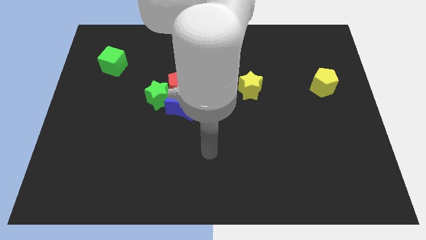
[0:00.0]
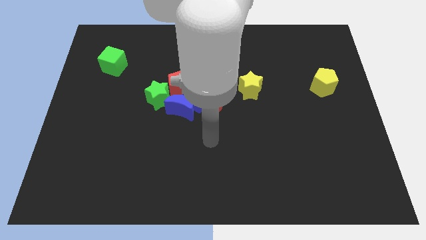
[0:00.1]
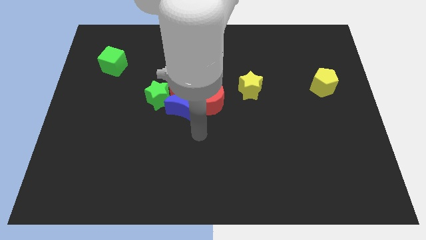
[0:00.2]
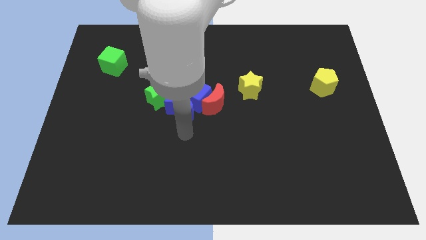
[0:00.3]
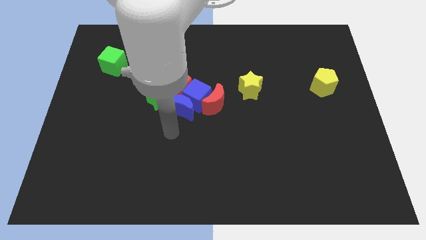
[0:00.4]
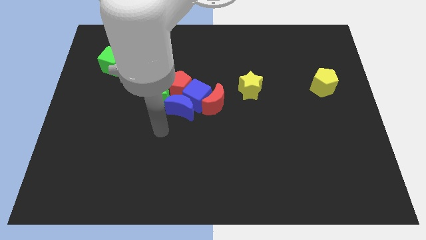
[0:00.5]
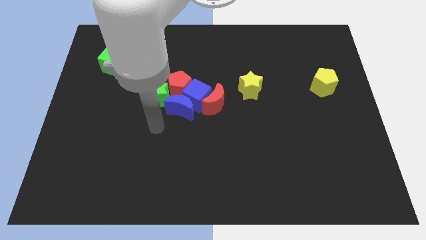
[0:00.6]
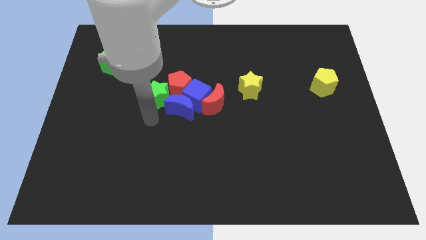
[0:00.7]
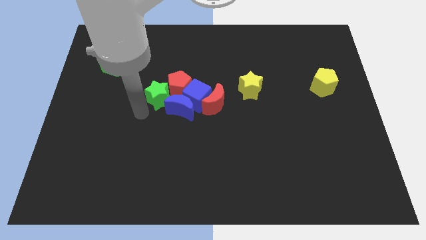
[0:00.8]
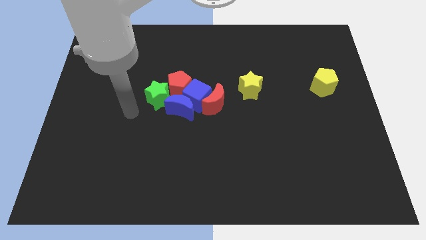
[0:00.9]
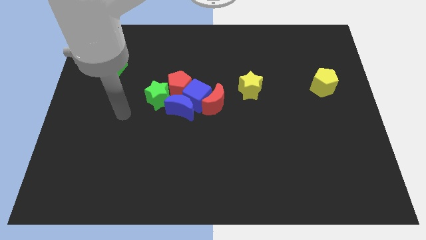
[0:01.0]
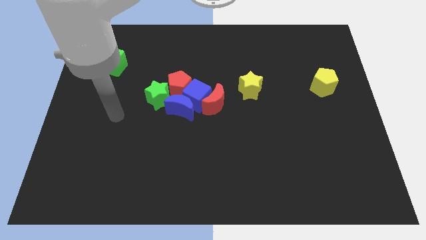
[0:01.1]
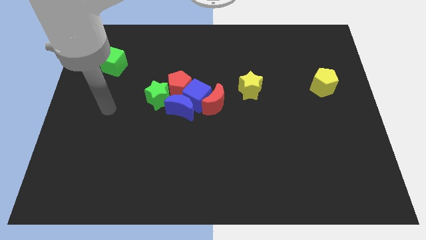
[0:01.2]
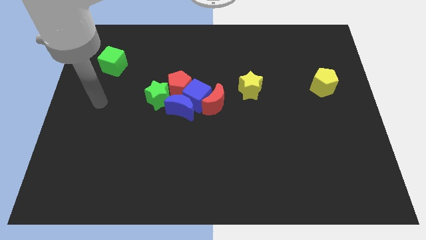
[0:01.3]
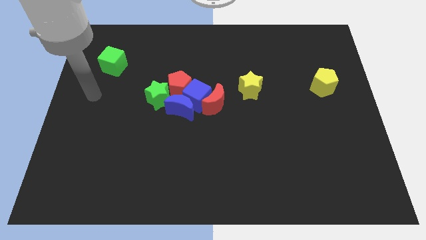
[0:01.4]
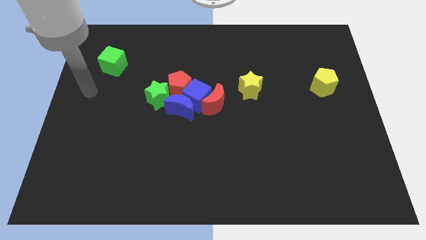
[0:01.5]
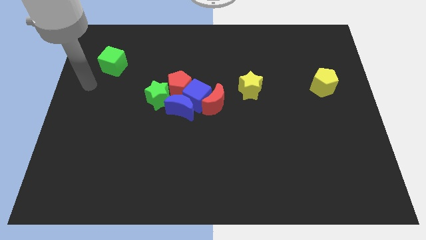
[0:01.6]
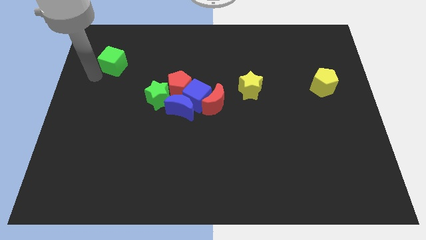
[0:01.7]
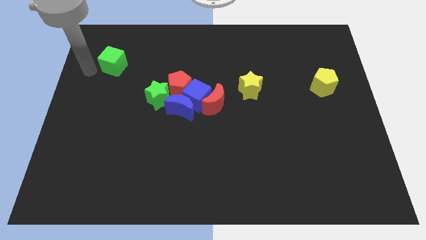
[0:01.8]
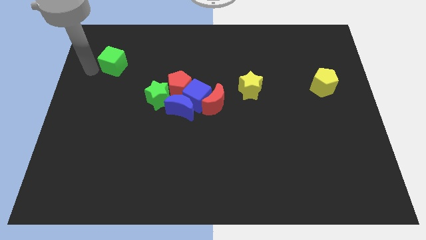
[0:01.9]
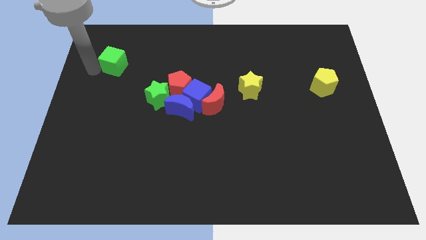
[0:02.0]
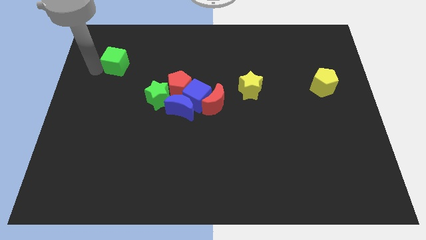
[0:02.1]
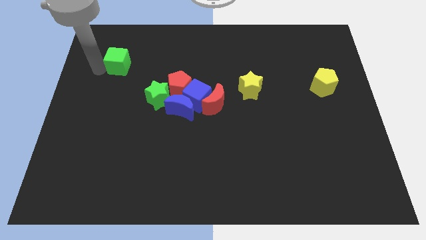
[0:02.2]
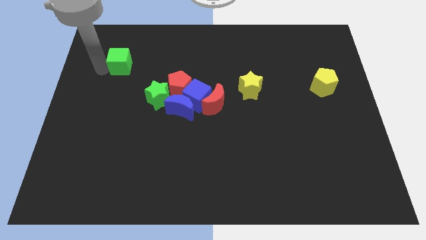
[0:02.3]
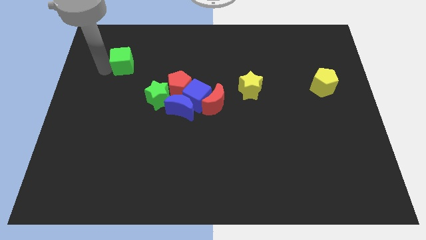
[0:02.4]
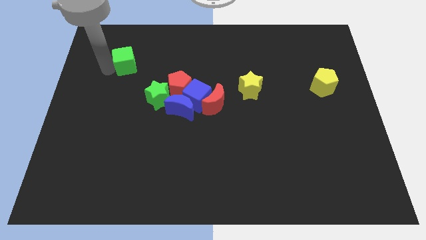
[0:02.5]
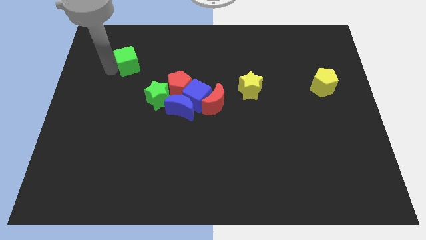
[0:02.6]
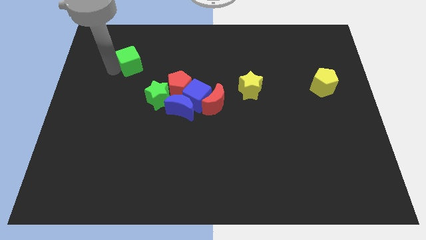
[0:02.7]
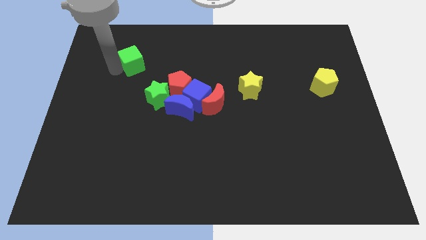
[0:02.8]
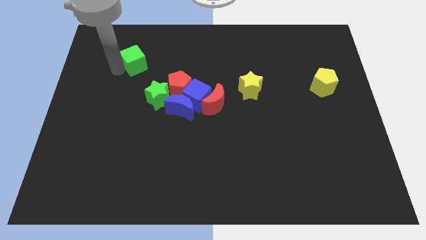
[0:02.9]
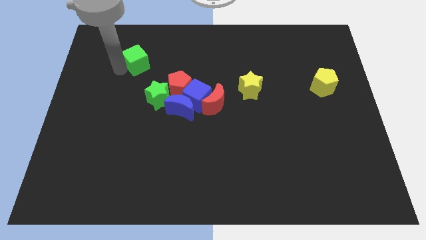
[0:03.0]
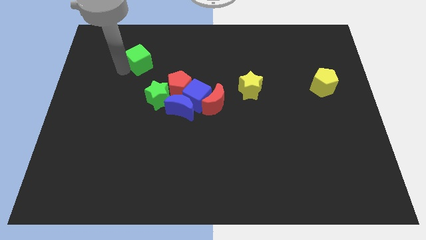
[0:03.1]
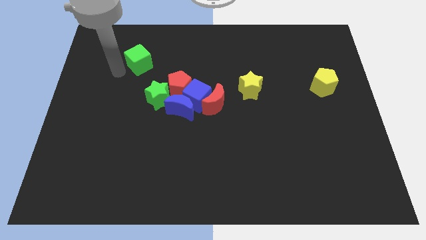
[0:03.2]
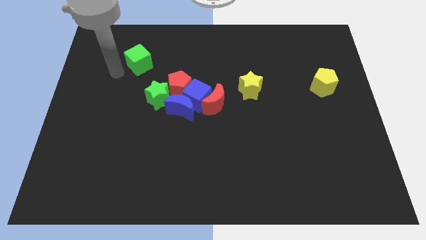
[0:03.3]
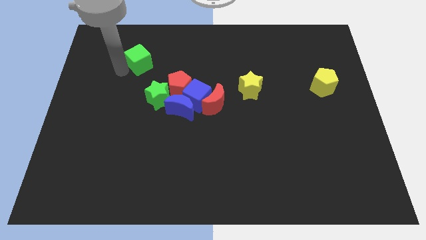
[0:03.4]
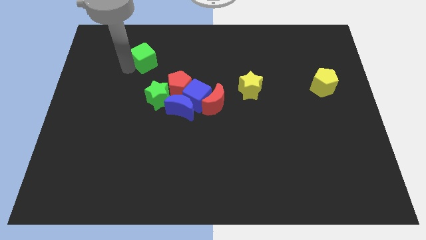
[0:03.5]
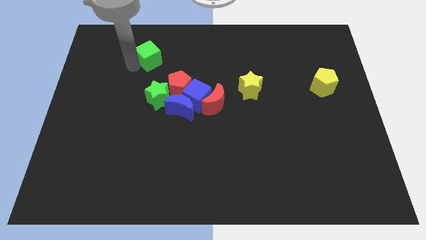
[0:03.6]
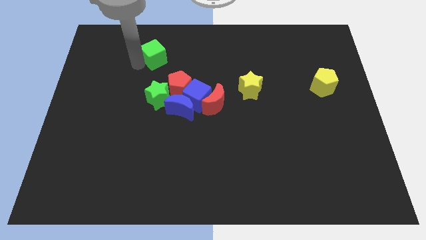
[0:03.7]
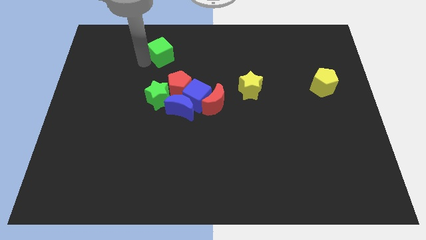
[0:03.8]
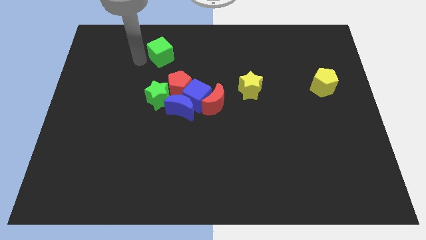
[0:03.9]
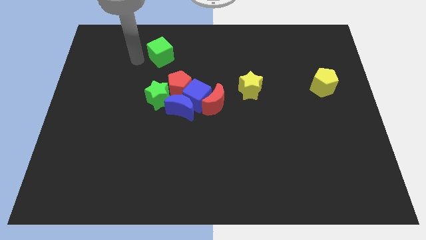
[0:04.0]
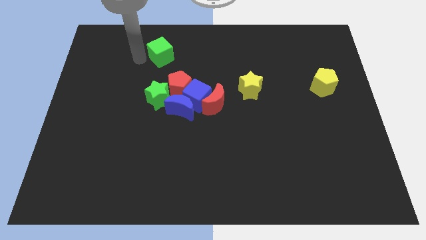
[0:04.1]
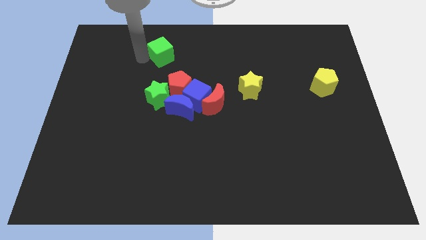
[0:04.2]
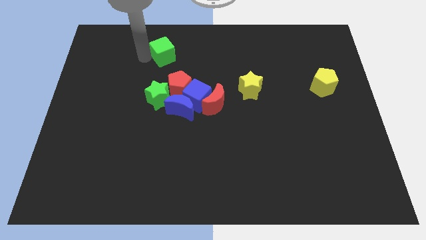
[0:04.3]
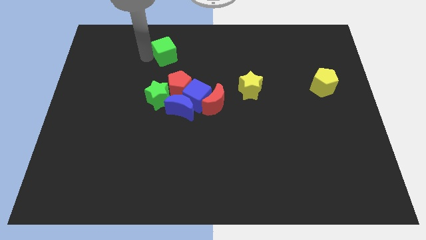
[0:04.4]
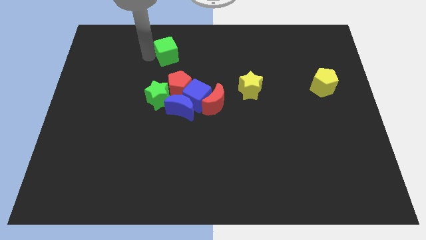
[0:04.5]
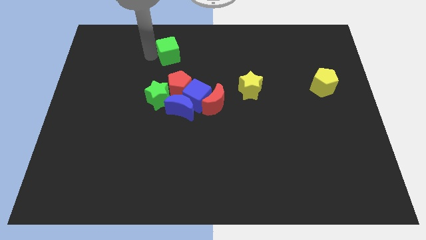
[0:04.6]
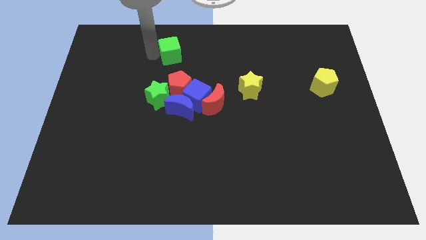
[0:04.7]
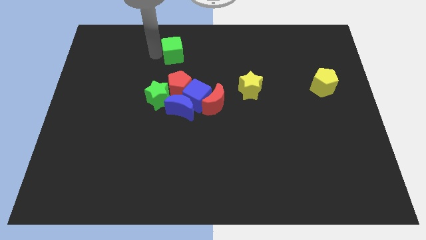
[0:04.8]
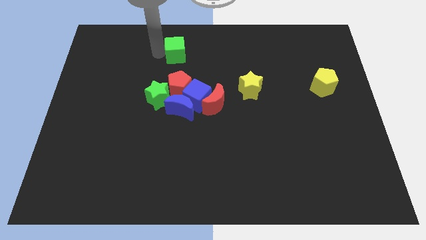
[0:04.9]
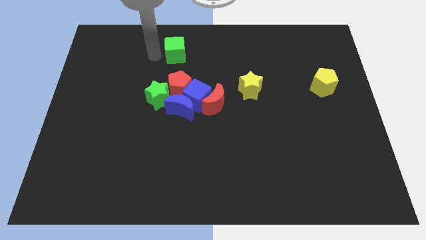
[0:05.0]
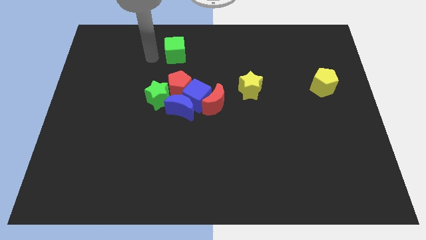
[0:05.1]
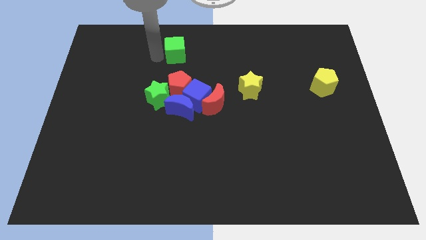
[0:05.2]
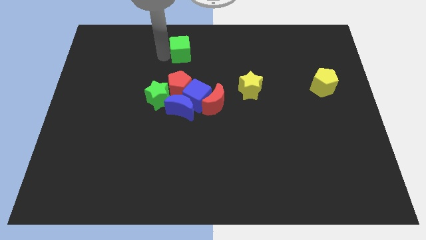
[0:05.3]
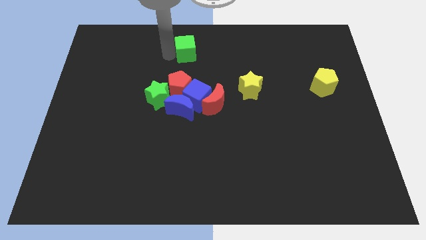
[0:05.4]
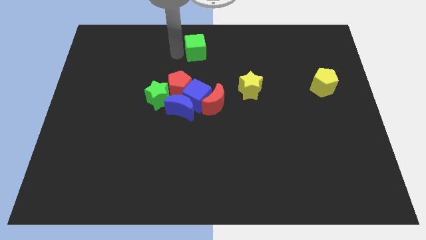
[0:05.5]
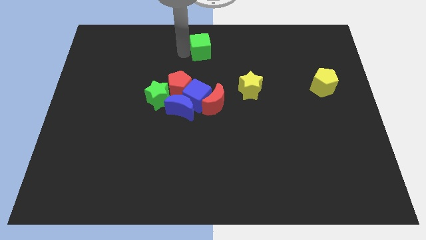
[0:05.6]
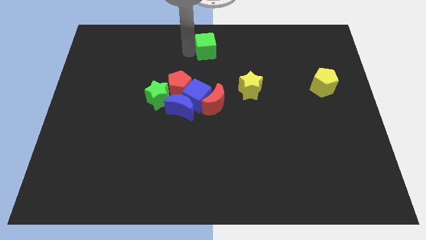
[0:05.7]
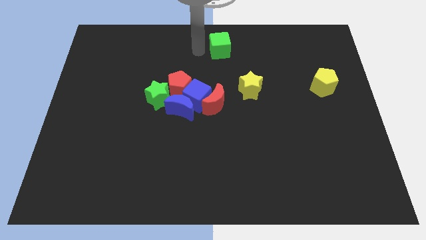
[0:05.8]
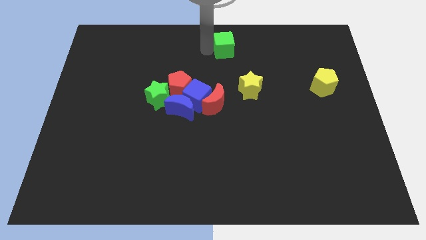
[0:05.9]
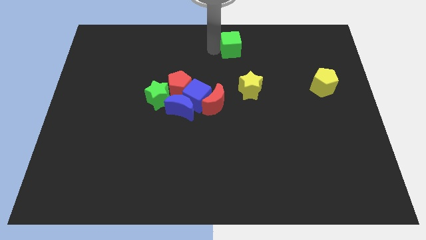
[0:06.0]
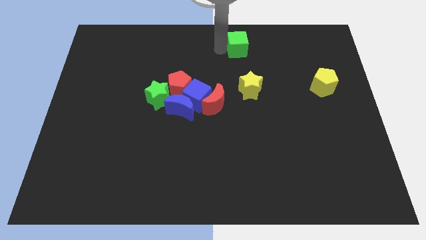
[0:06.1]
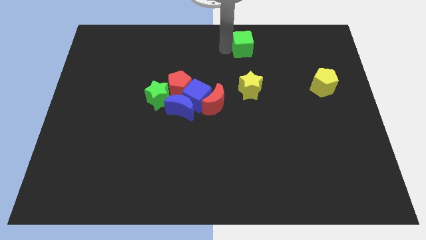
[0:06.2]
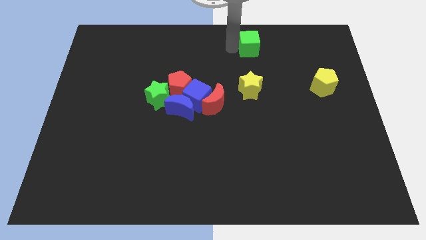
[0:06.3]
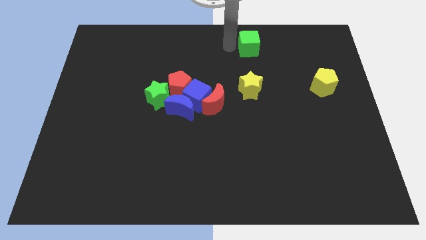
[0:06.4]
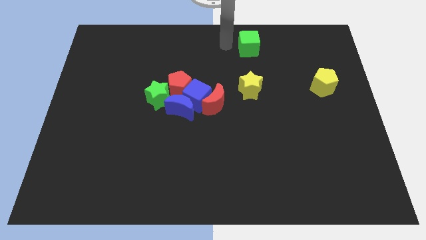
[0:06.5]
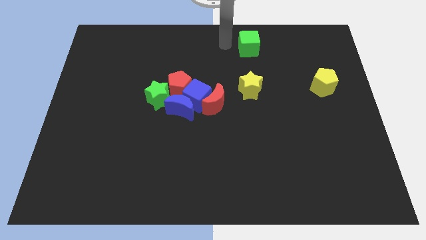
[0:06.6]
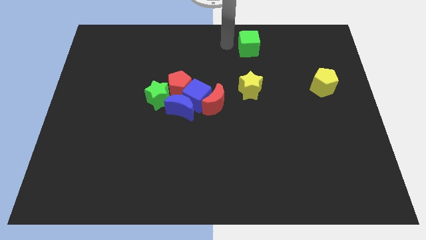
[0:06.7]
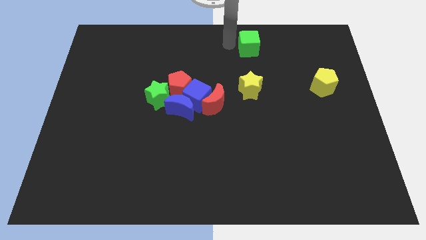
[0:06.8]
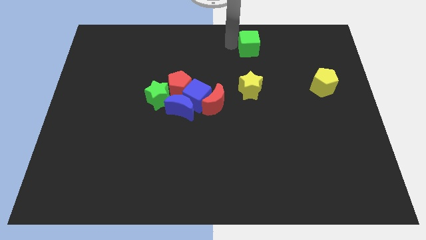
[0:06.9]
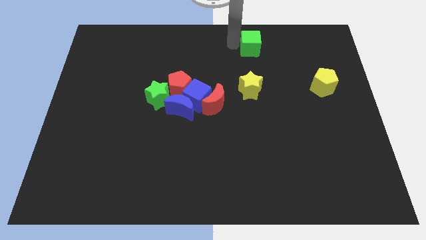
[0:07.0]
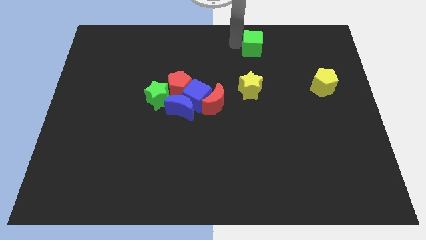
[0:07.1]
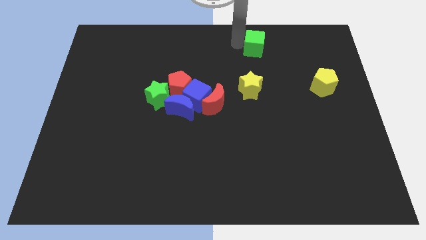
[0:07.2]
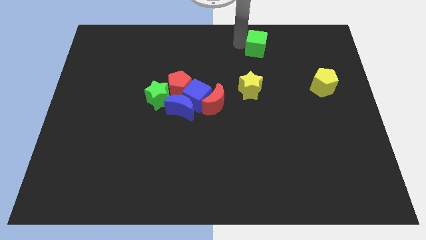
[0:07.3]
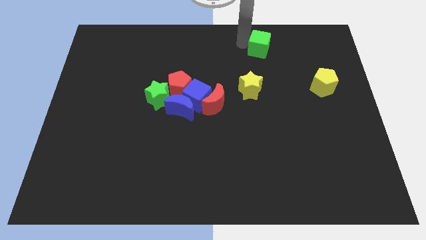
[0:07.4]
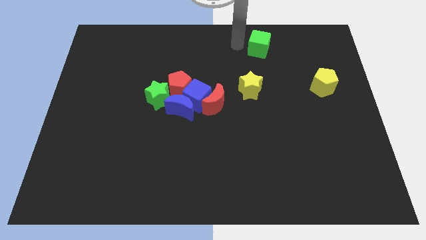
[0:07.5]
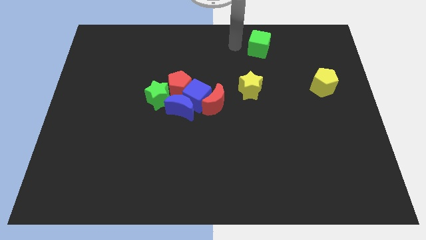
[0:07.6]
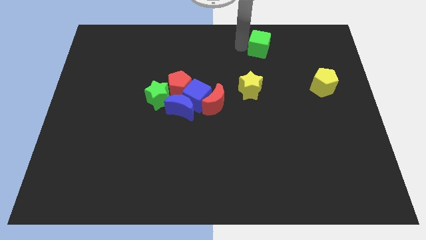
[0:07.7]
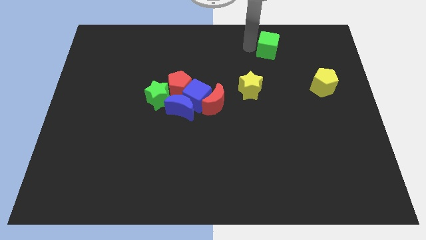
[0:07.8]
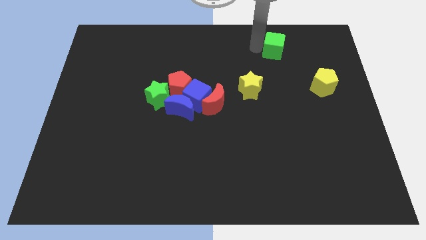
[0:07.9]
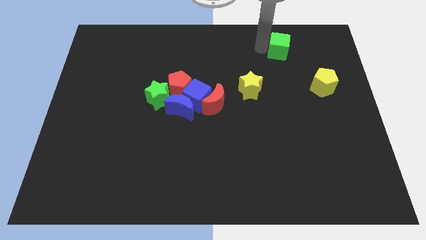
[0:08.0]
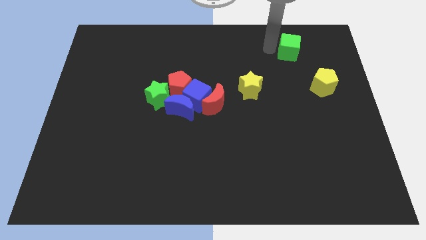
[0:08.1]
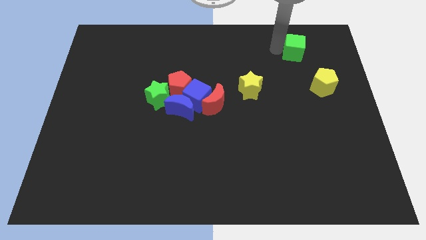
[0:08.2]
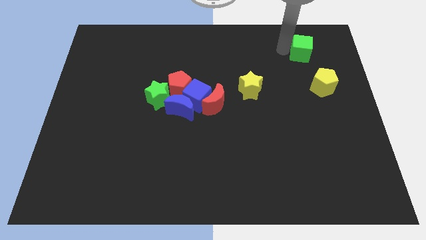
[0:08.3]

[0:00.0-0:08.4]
move the green cube above the yellow pentagon
